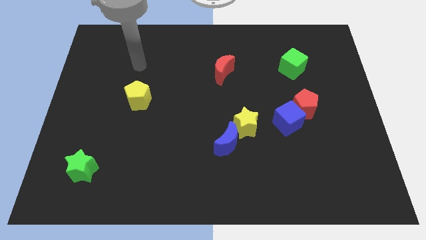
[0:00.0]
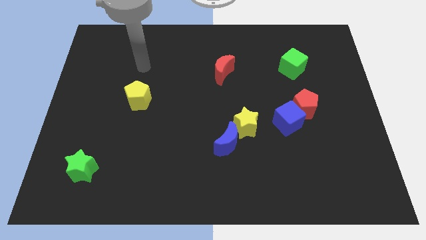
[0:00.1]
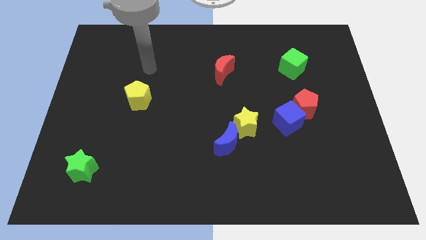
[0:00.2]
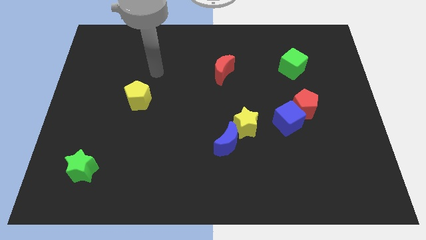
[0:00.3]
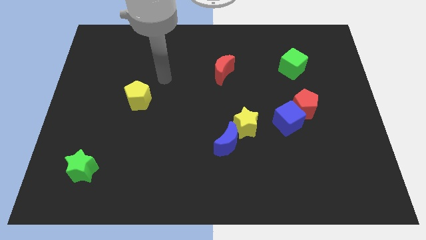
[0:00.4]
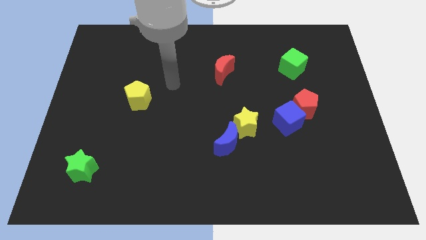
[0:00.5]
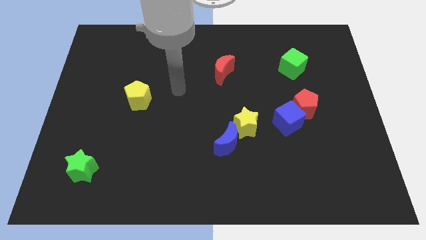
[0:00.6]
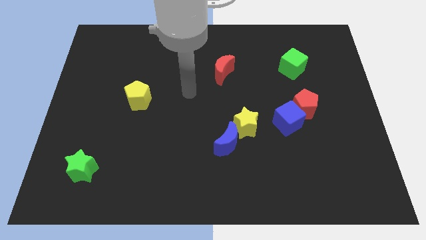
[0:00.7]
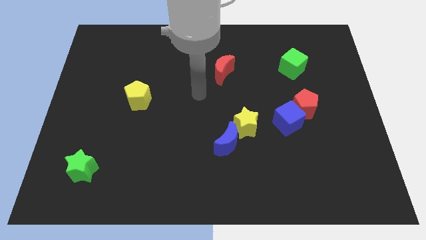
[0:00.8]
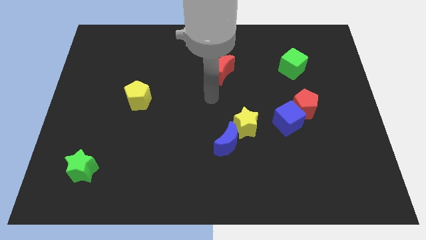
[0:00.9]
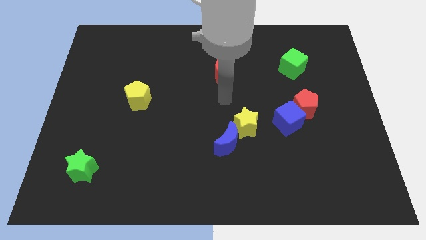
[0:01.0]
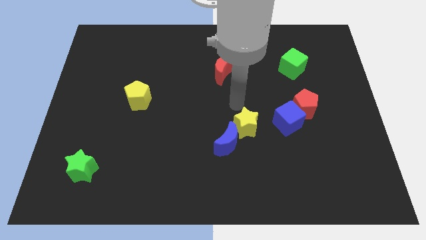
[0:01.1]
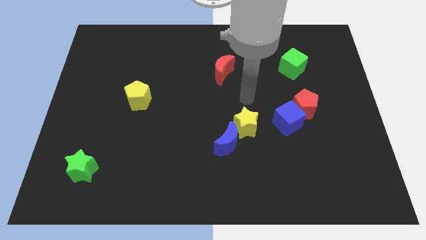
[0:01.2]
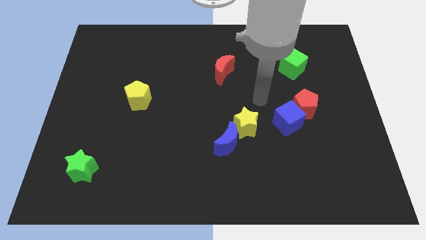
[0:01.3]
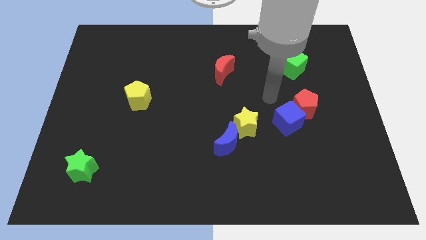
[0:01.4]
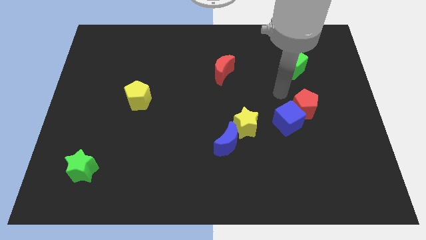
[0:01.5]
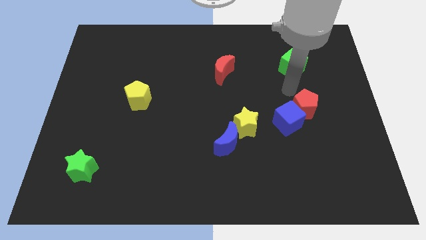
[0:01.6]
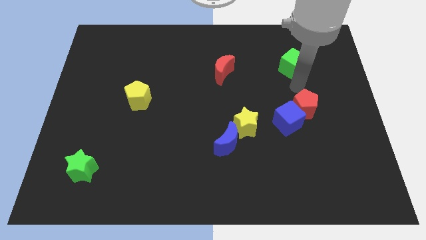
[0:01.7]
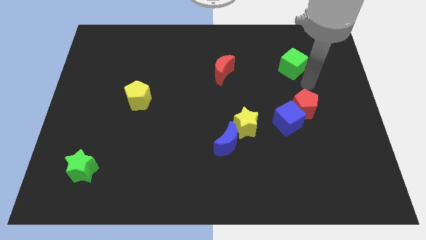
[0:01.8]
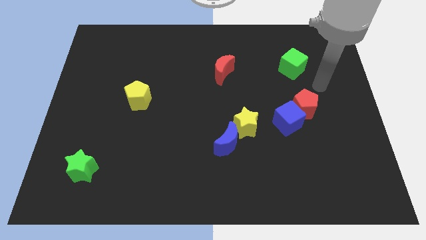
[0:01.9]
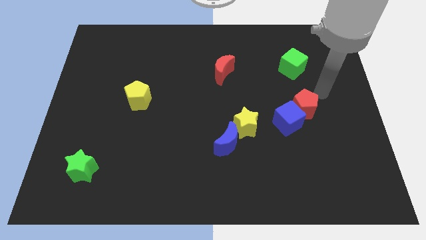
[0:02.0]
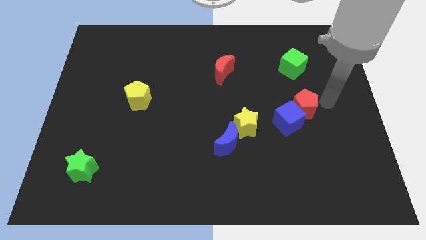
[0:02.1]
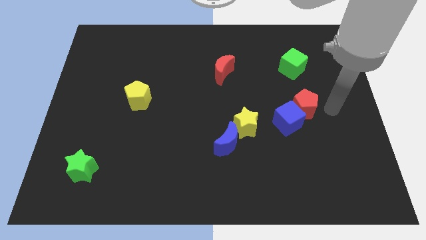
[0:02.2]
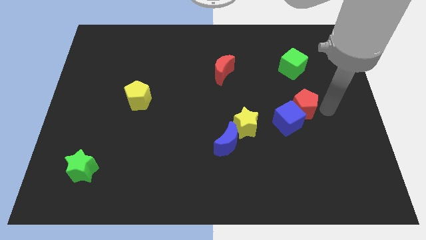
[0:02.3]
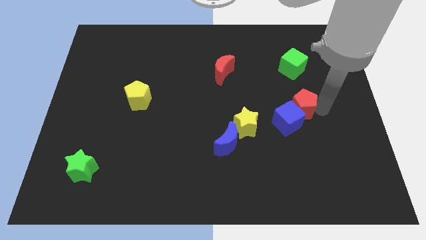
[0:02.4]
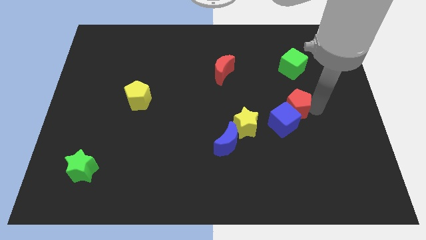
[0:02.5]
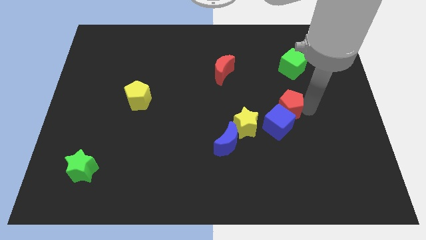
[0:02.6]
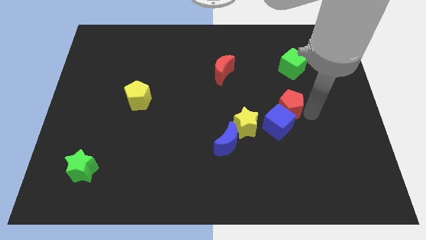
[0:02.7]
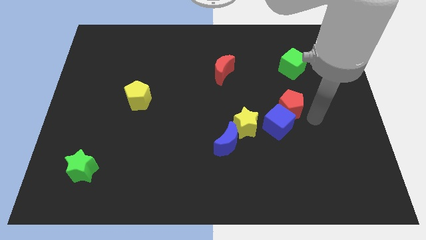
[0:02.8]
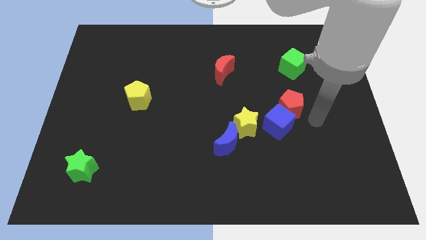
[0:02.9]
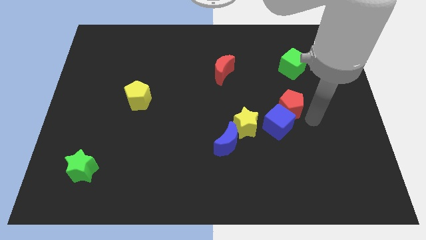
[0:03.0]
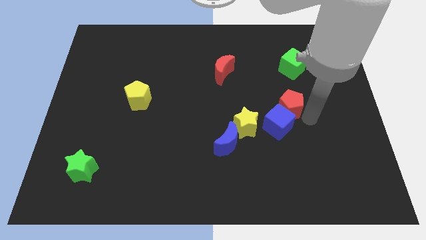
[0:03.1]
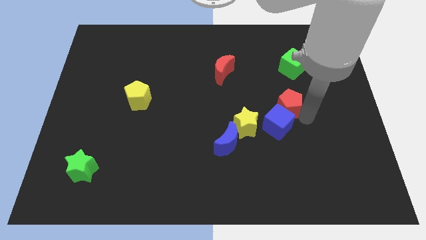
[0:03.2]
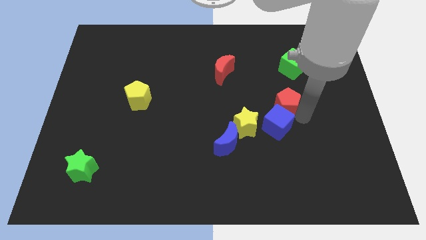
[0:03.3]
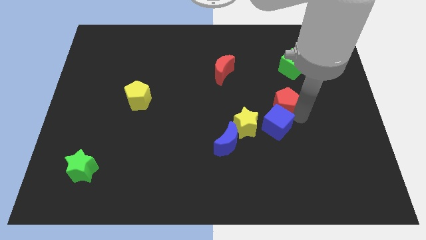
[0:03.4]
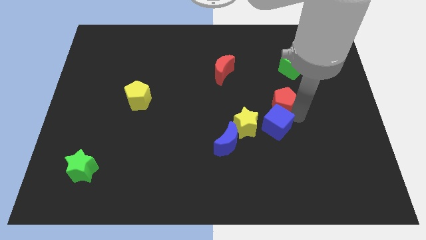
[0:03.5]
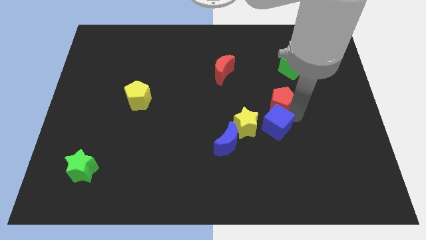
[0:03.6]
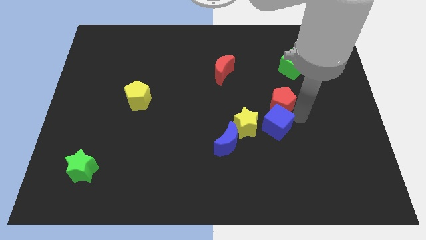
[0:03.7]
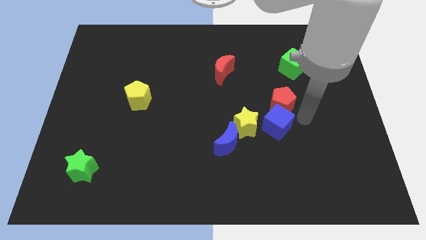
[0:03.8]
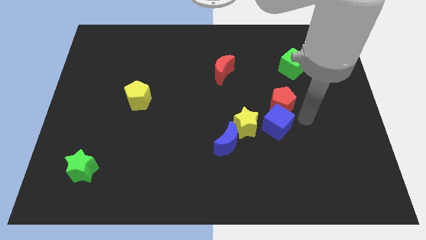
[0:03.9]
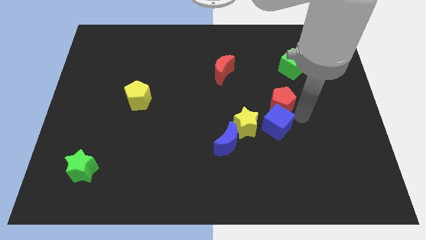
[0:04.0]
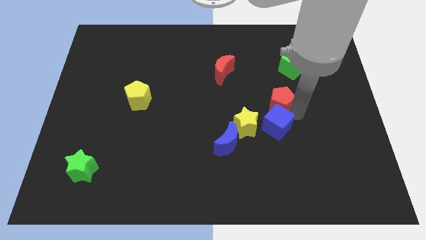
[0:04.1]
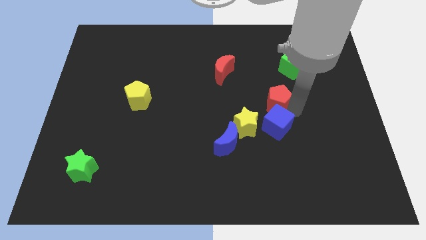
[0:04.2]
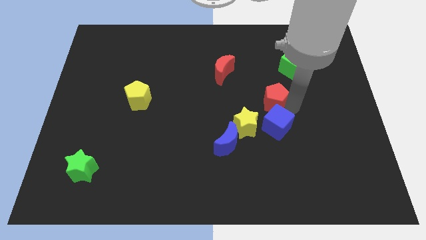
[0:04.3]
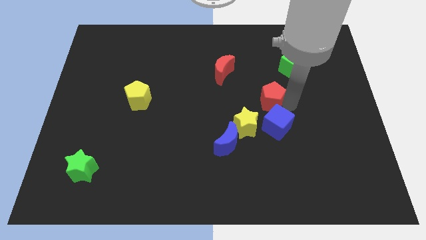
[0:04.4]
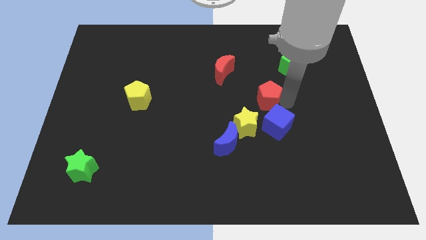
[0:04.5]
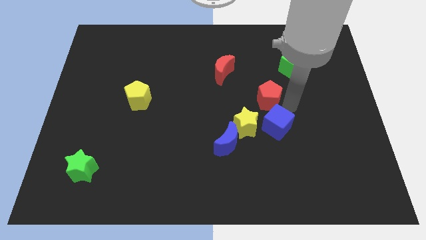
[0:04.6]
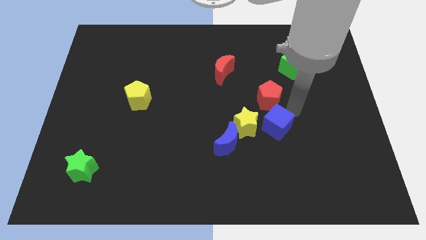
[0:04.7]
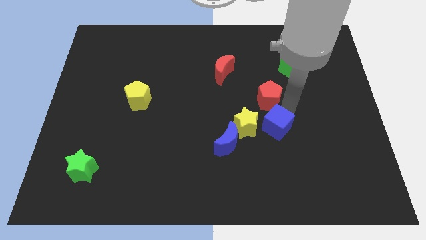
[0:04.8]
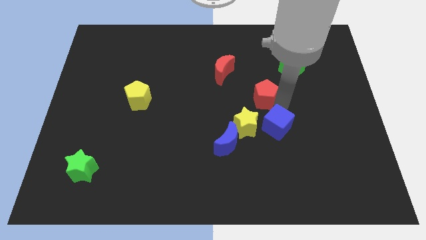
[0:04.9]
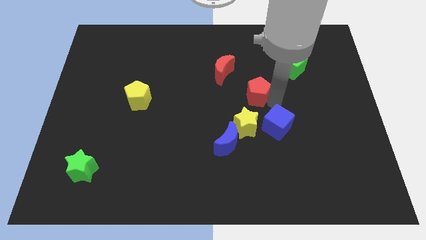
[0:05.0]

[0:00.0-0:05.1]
slide the red pentagon to the bottom right side of the red moon

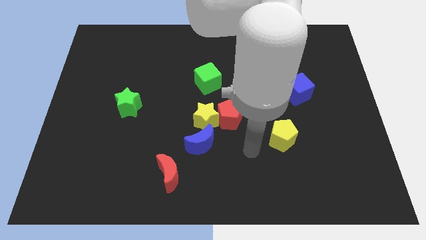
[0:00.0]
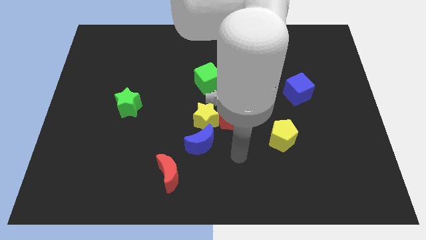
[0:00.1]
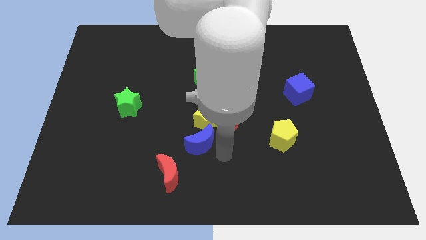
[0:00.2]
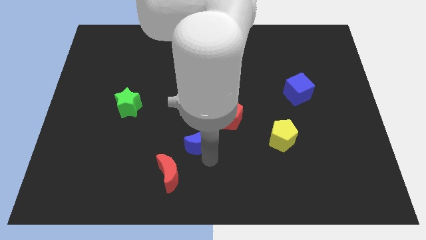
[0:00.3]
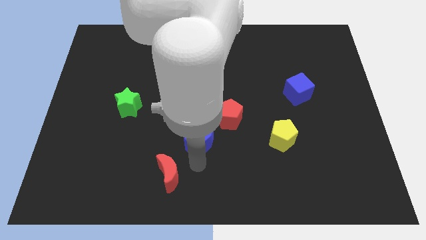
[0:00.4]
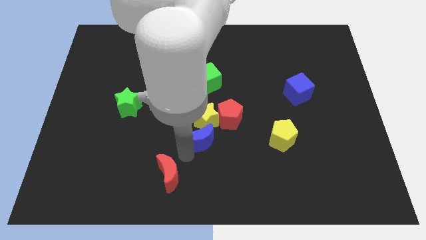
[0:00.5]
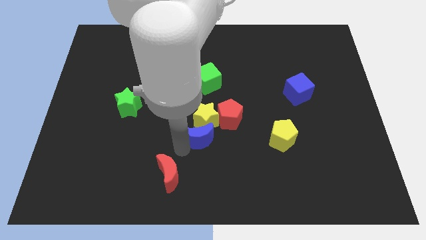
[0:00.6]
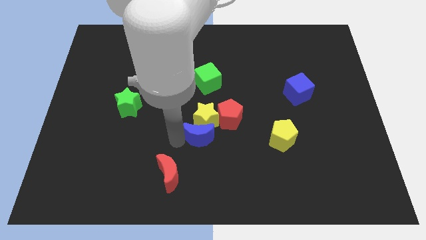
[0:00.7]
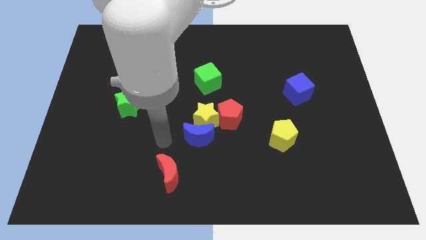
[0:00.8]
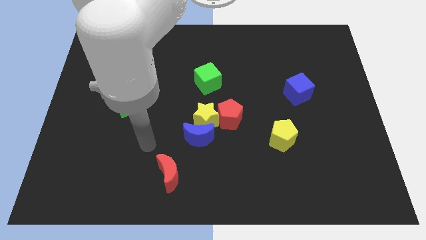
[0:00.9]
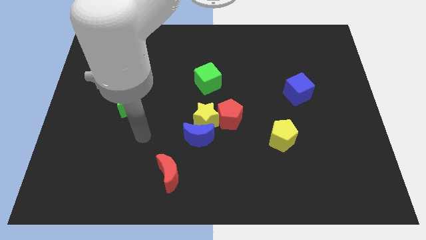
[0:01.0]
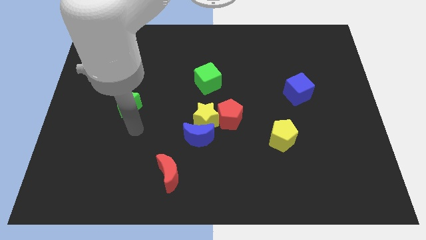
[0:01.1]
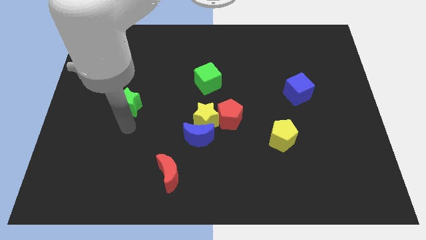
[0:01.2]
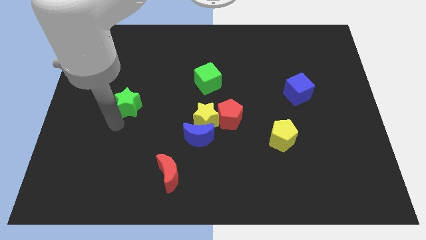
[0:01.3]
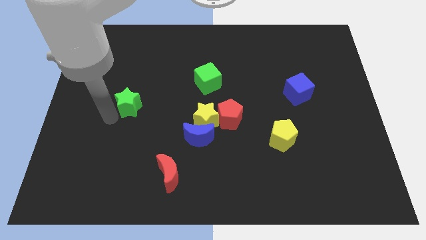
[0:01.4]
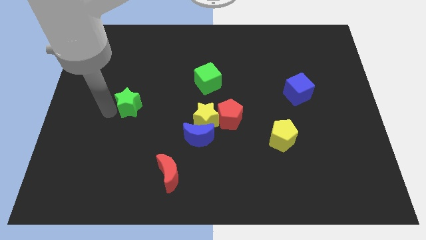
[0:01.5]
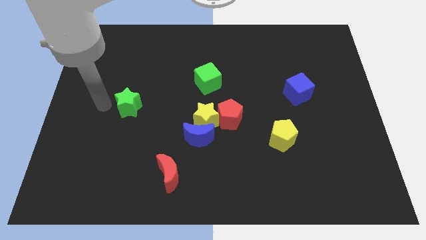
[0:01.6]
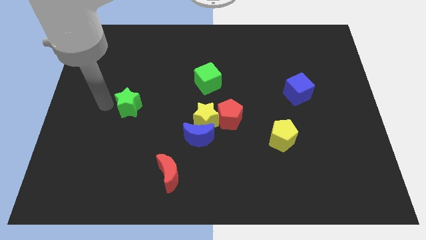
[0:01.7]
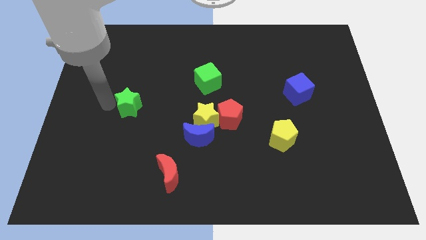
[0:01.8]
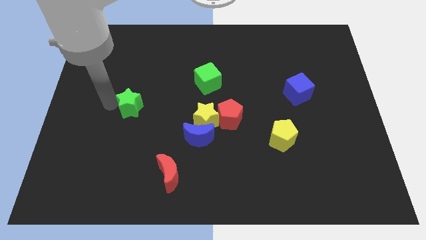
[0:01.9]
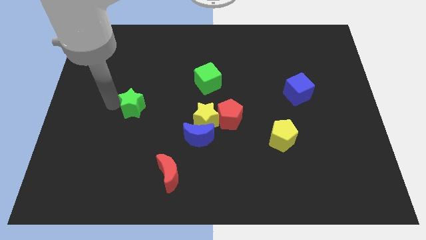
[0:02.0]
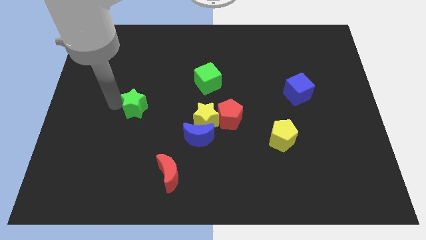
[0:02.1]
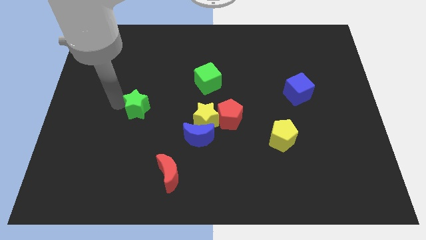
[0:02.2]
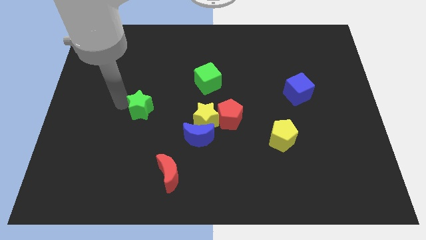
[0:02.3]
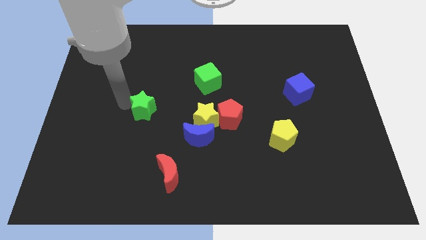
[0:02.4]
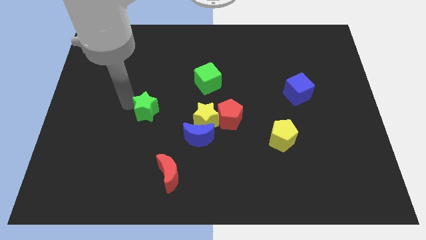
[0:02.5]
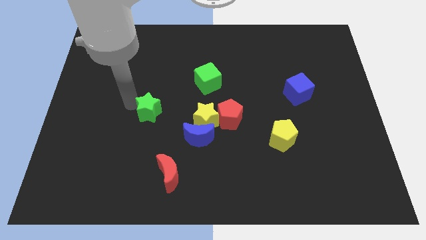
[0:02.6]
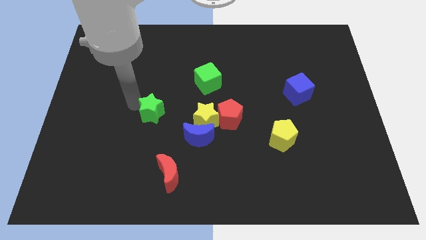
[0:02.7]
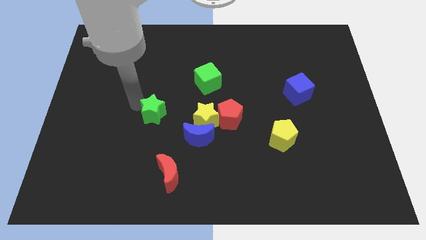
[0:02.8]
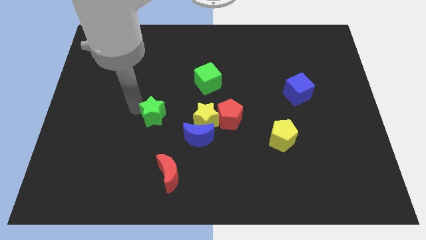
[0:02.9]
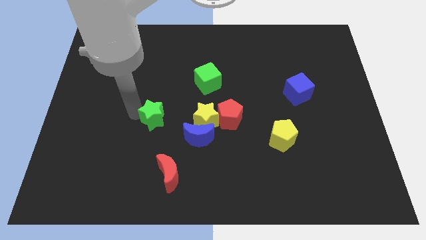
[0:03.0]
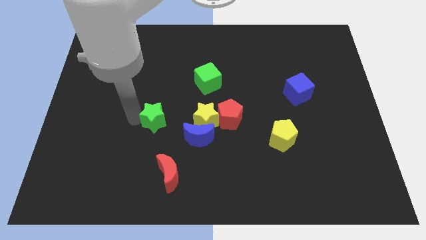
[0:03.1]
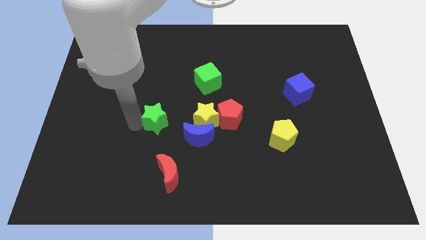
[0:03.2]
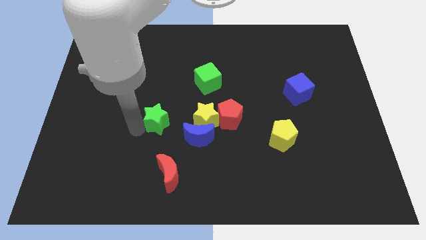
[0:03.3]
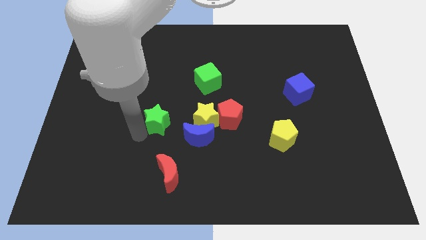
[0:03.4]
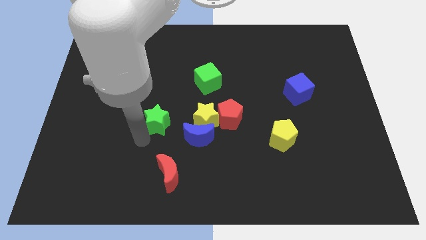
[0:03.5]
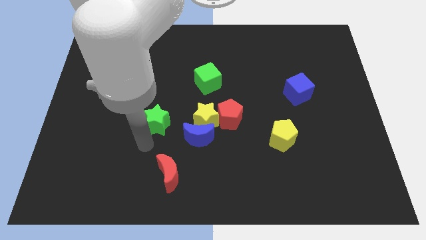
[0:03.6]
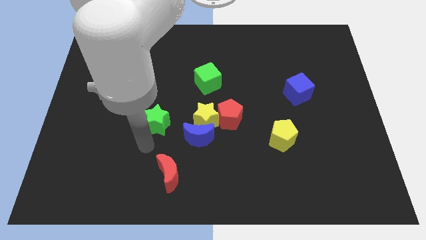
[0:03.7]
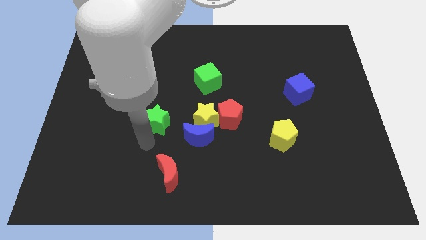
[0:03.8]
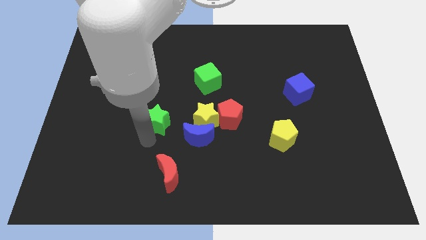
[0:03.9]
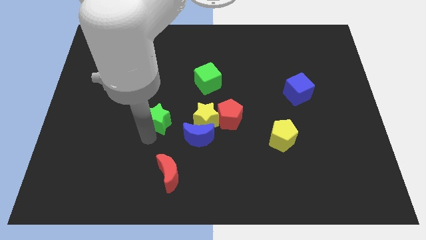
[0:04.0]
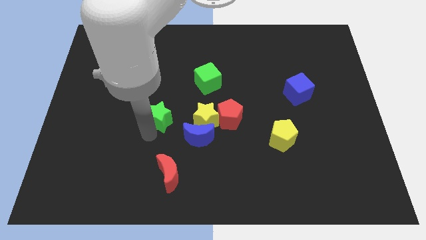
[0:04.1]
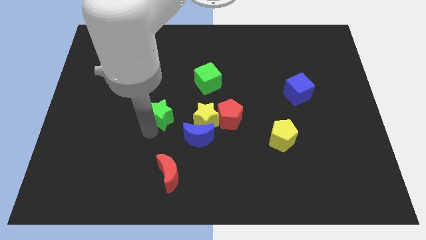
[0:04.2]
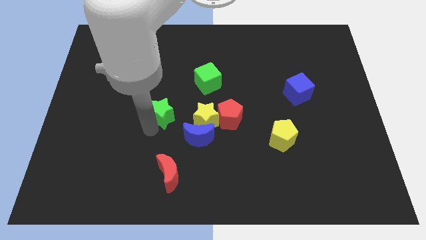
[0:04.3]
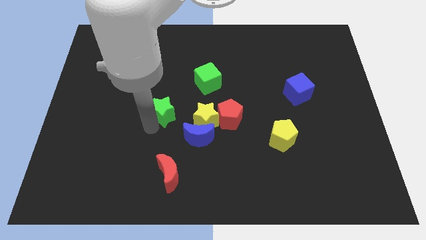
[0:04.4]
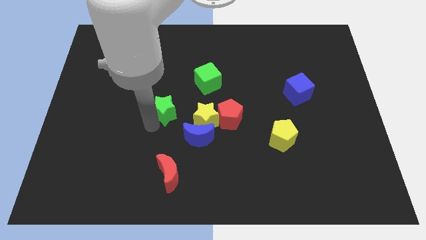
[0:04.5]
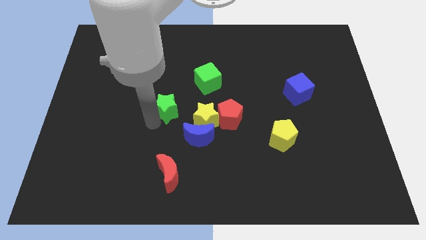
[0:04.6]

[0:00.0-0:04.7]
slide the green star diagonally up and to the left of the yellow star
